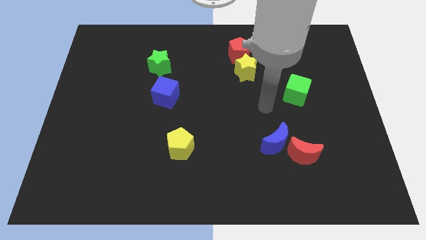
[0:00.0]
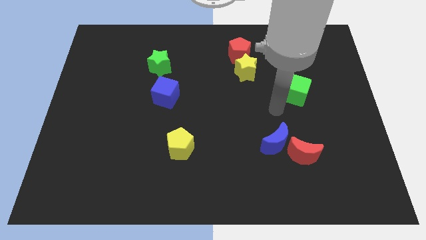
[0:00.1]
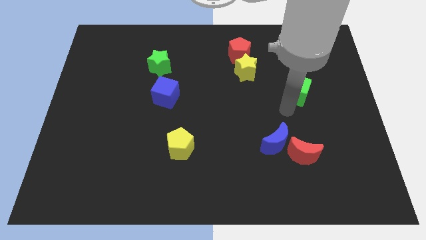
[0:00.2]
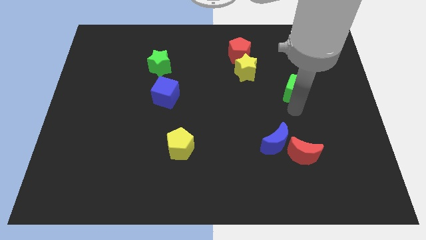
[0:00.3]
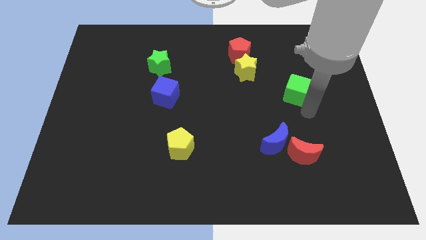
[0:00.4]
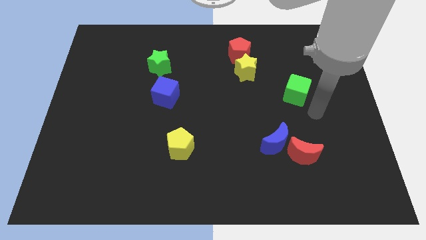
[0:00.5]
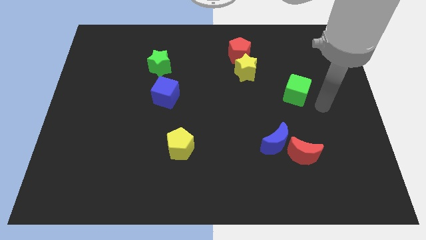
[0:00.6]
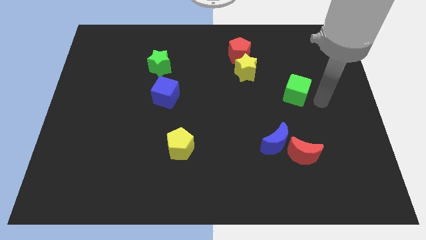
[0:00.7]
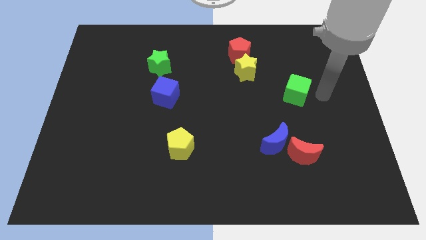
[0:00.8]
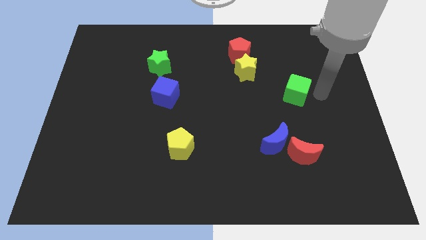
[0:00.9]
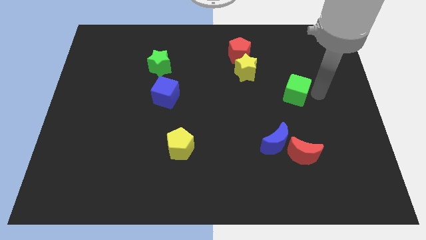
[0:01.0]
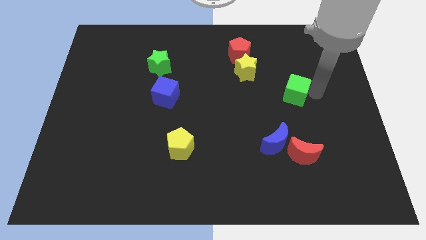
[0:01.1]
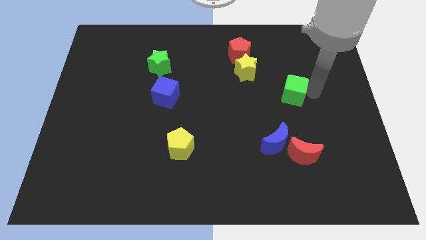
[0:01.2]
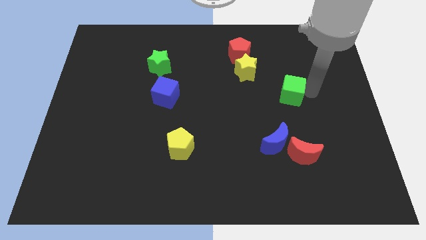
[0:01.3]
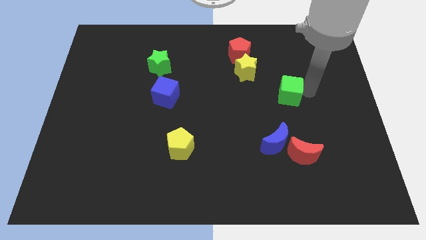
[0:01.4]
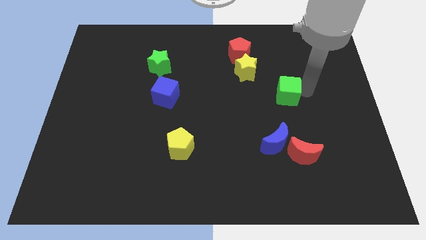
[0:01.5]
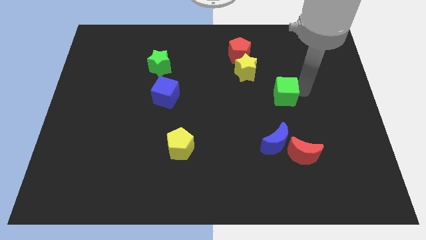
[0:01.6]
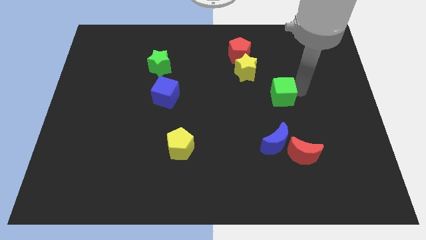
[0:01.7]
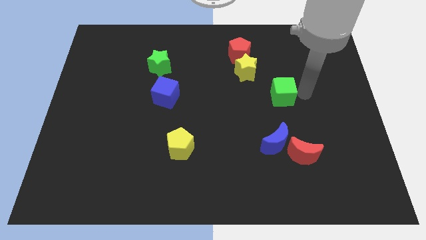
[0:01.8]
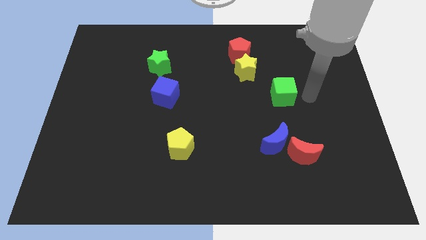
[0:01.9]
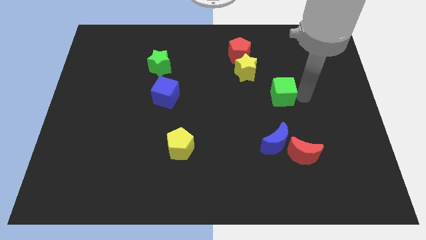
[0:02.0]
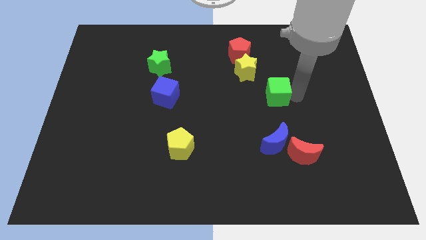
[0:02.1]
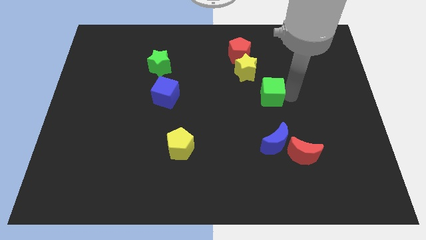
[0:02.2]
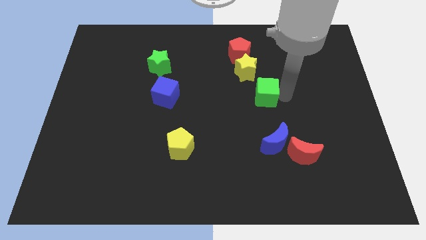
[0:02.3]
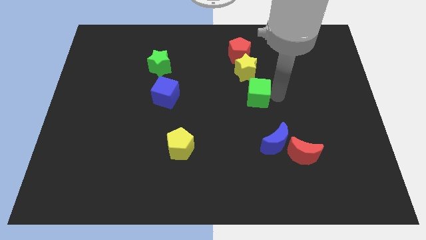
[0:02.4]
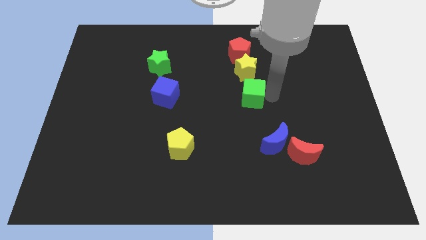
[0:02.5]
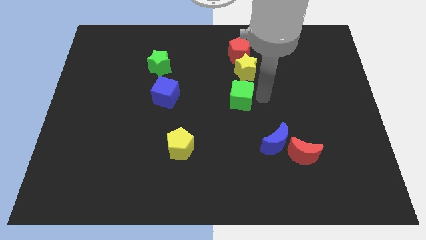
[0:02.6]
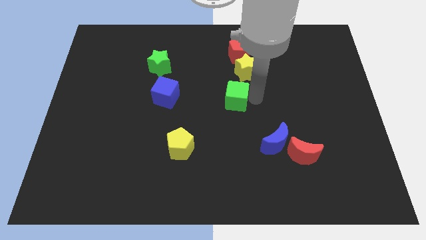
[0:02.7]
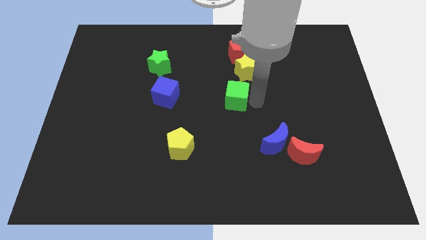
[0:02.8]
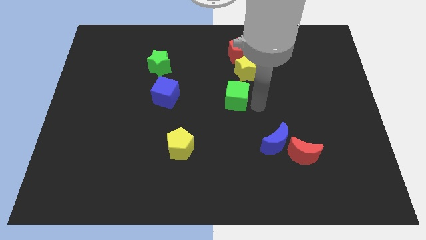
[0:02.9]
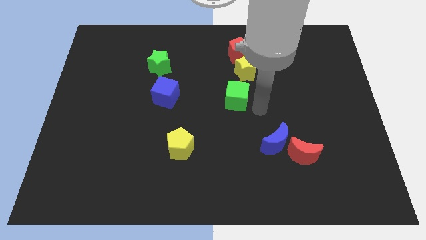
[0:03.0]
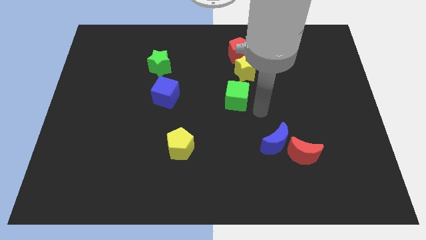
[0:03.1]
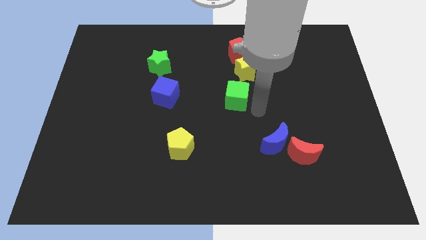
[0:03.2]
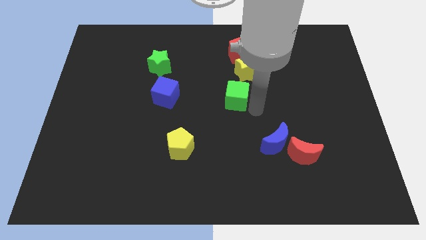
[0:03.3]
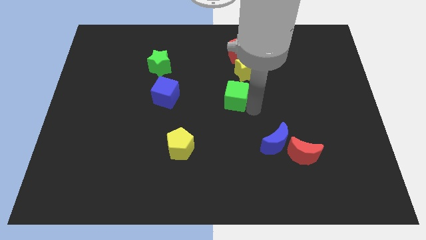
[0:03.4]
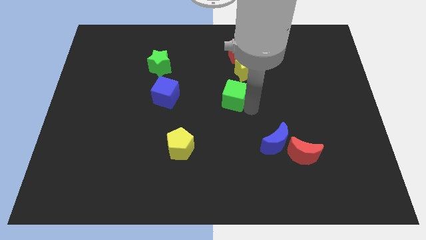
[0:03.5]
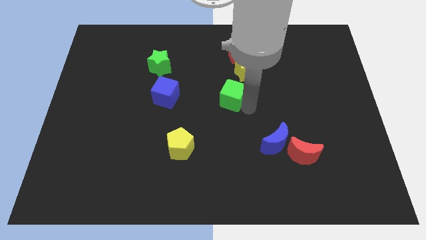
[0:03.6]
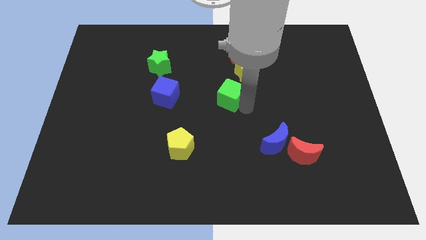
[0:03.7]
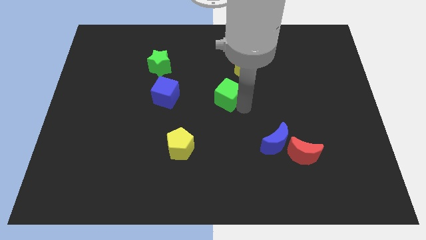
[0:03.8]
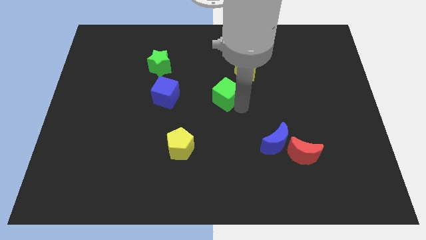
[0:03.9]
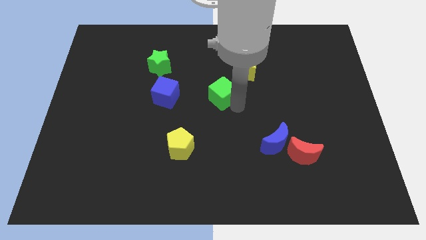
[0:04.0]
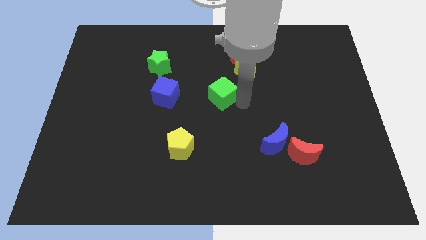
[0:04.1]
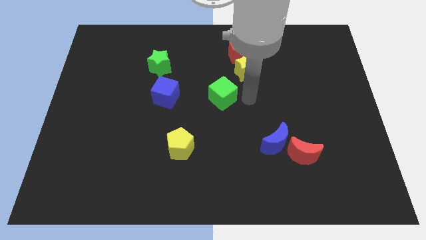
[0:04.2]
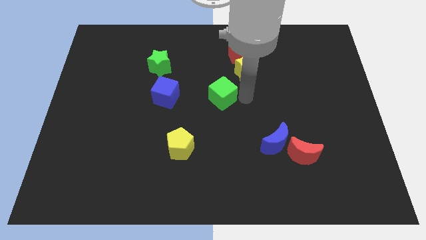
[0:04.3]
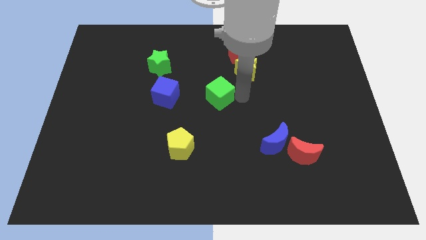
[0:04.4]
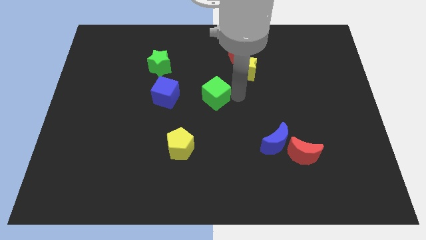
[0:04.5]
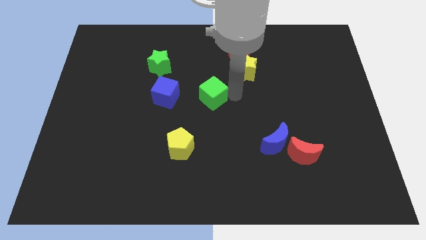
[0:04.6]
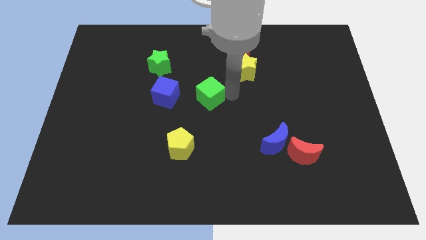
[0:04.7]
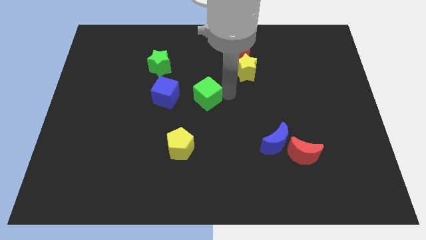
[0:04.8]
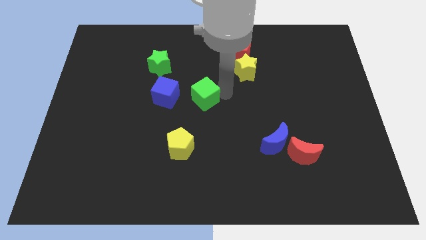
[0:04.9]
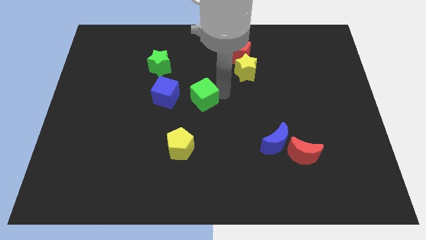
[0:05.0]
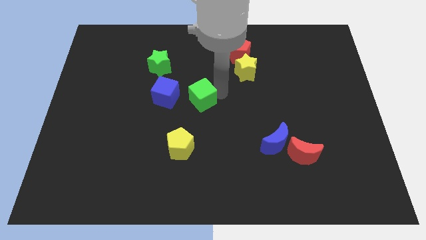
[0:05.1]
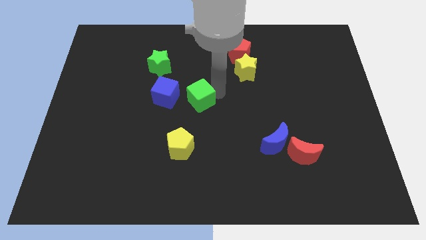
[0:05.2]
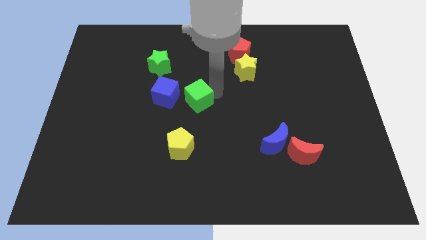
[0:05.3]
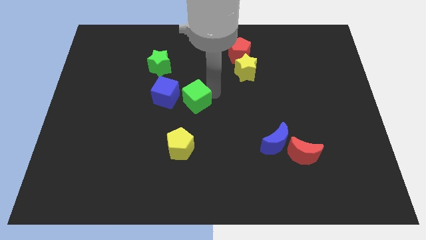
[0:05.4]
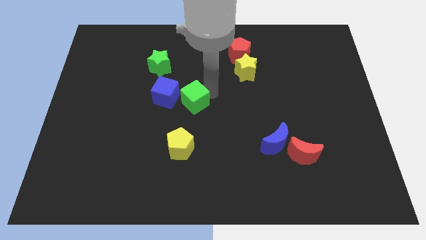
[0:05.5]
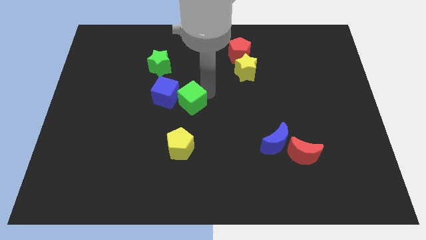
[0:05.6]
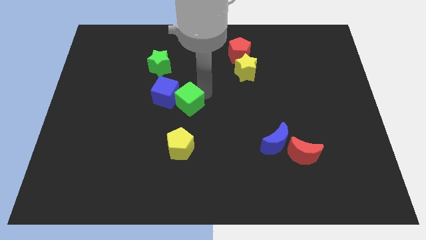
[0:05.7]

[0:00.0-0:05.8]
put the green cube to the blue cube

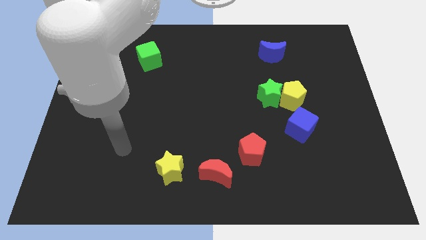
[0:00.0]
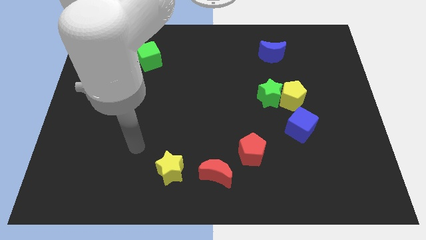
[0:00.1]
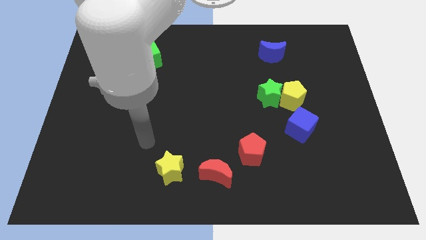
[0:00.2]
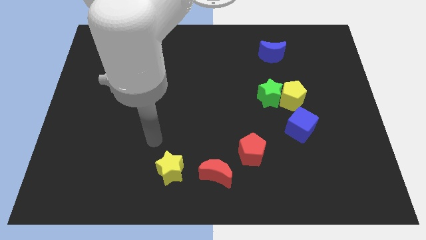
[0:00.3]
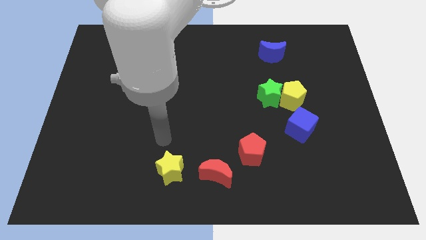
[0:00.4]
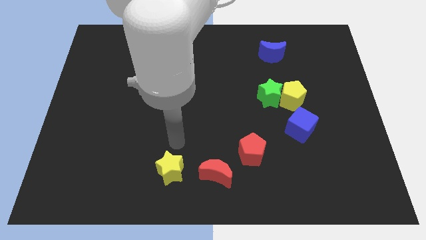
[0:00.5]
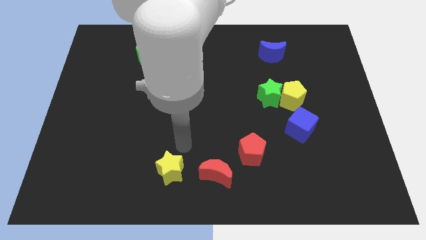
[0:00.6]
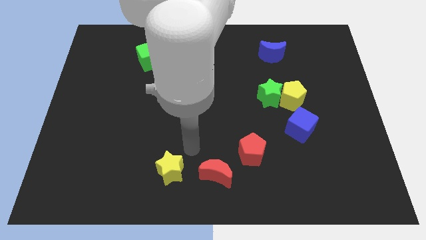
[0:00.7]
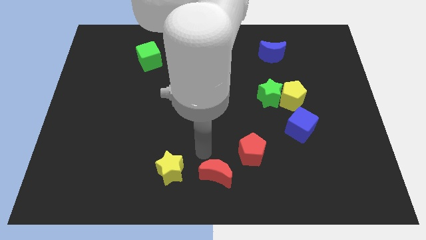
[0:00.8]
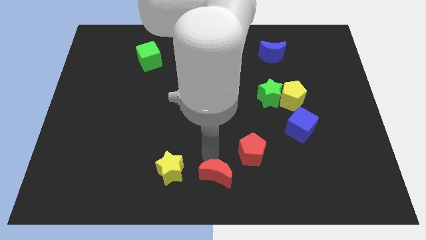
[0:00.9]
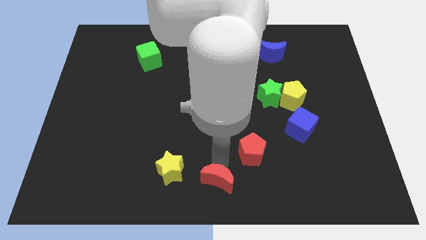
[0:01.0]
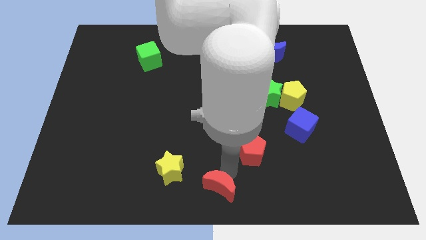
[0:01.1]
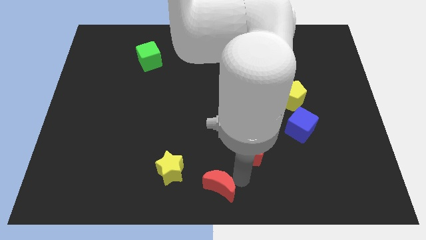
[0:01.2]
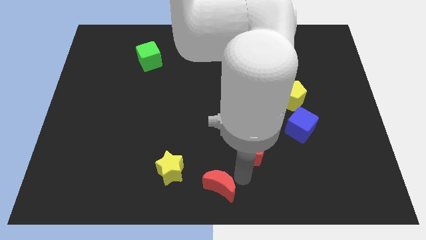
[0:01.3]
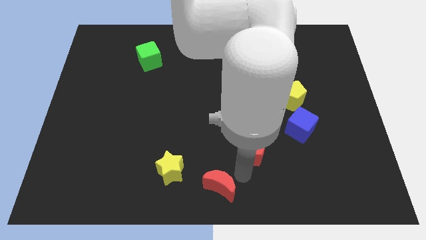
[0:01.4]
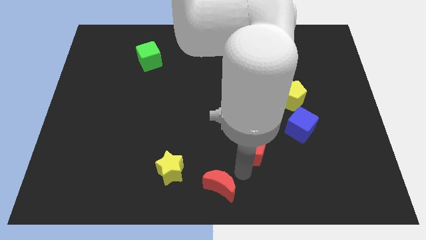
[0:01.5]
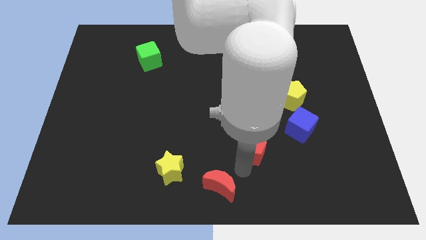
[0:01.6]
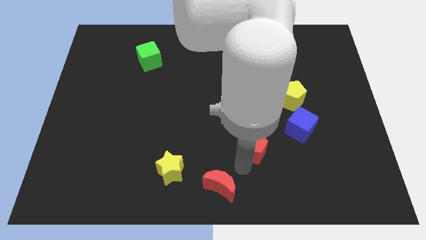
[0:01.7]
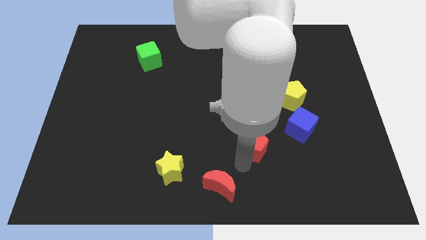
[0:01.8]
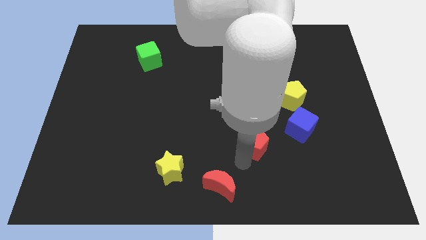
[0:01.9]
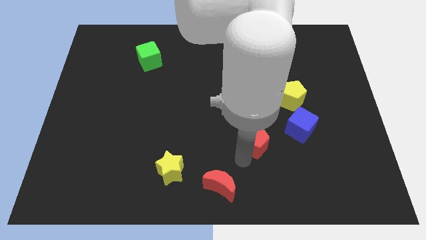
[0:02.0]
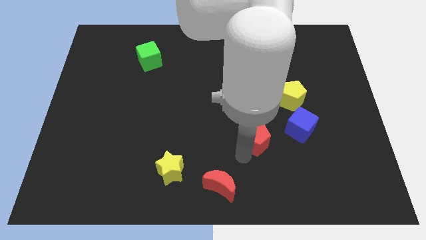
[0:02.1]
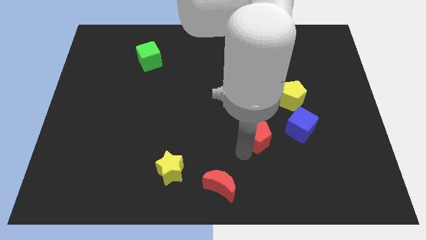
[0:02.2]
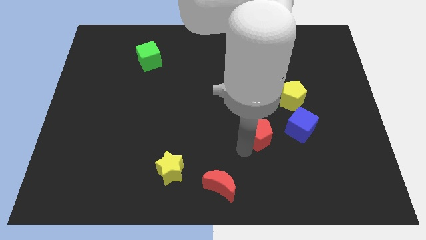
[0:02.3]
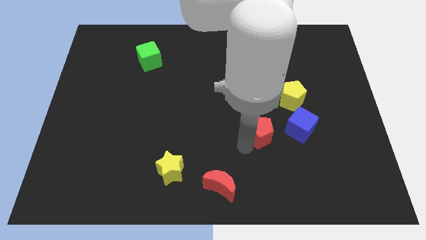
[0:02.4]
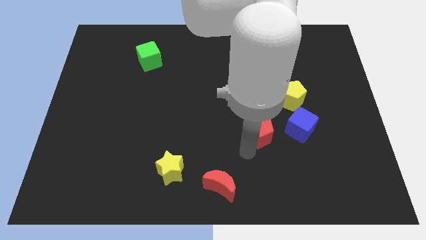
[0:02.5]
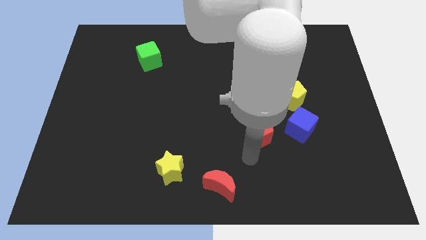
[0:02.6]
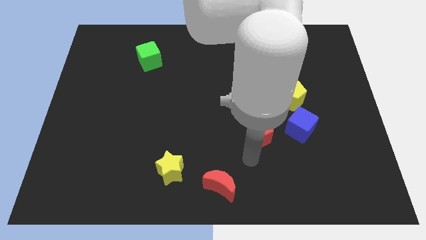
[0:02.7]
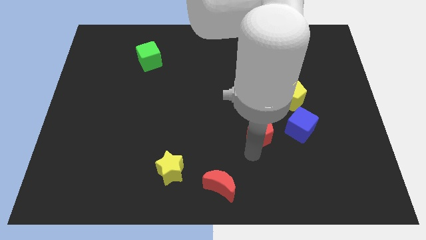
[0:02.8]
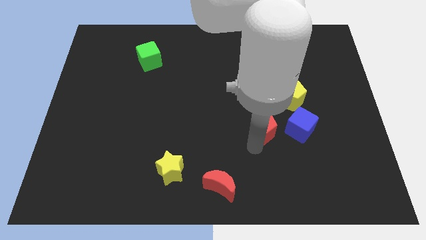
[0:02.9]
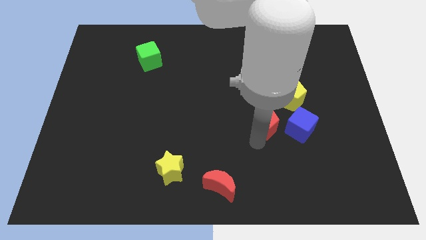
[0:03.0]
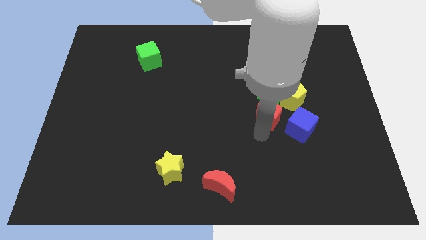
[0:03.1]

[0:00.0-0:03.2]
slide the red pentagon towards the green star
